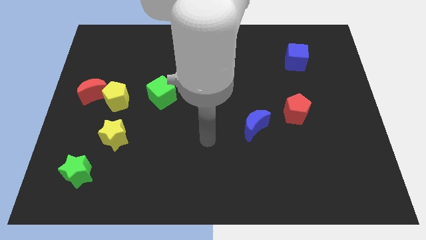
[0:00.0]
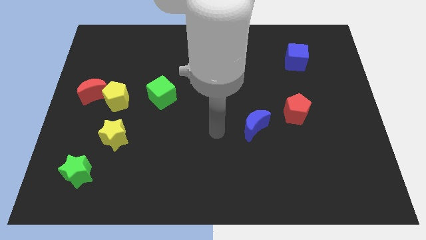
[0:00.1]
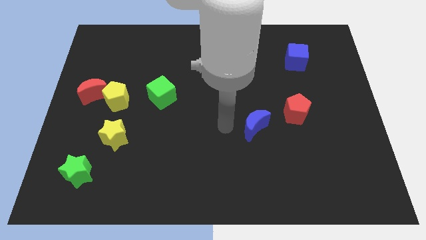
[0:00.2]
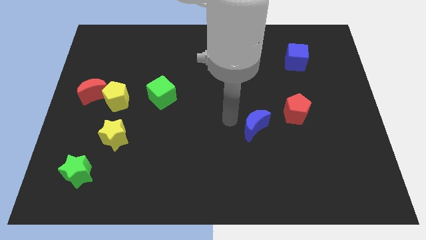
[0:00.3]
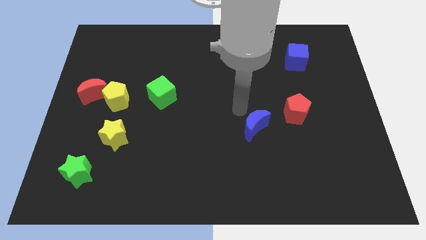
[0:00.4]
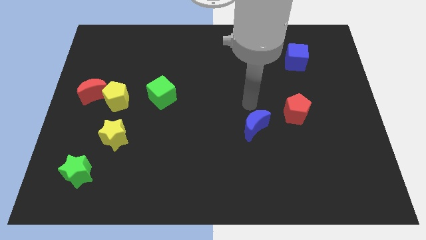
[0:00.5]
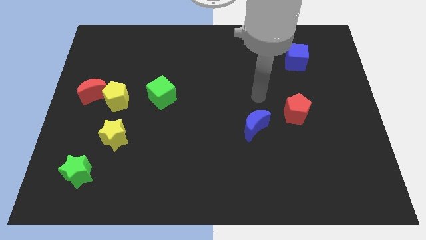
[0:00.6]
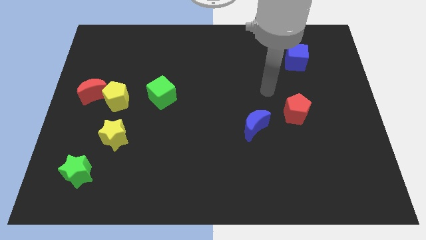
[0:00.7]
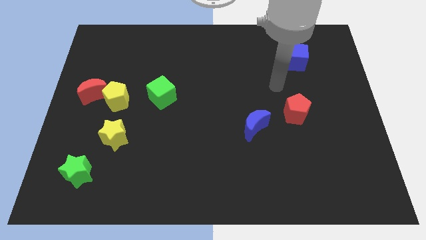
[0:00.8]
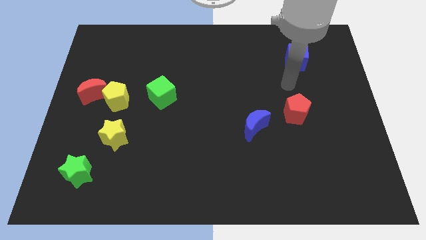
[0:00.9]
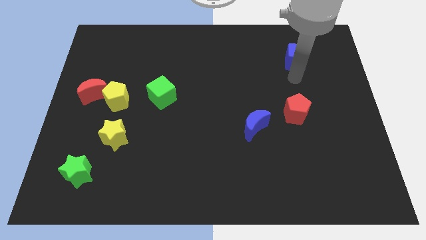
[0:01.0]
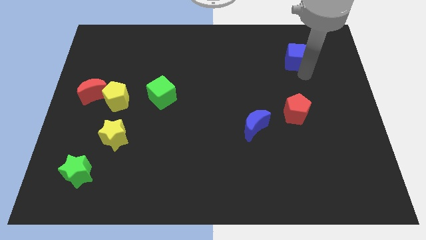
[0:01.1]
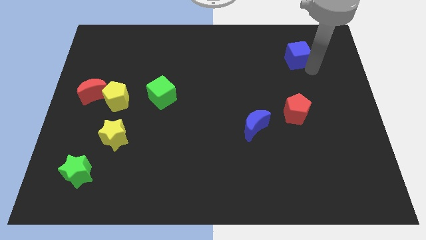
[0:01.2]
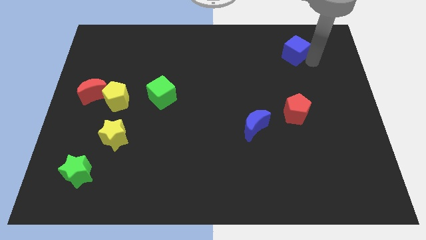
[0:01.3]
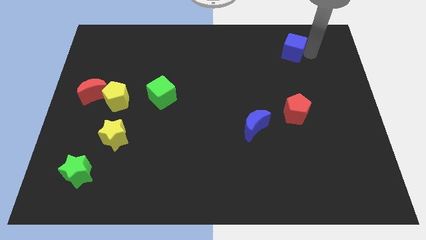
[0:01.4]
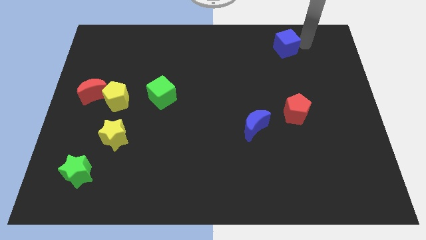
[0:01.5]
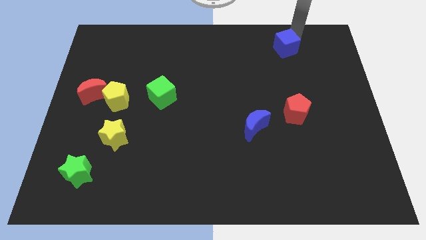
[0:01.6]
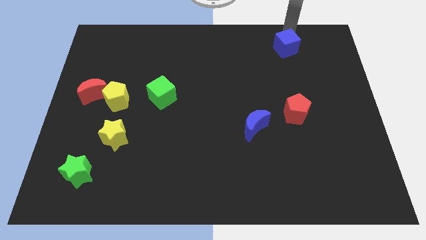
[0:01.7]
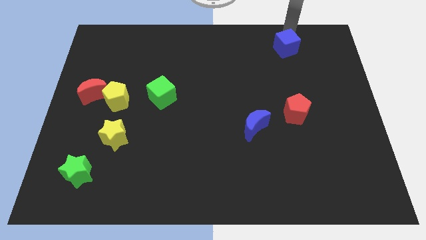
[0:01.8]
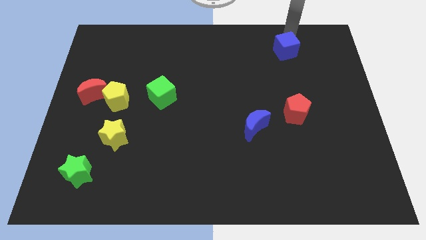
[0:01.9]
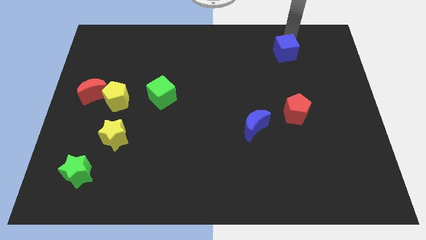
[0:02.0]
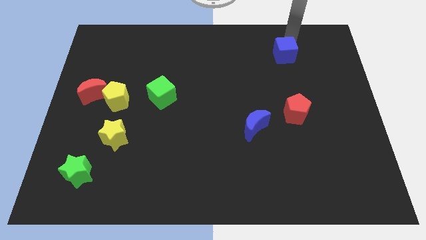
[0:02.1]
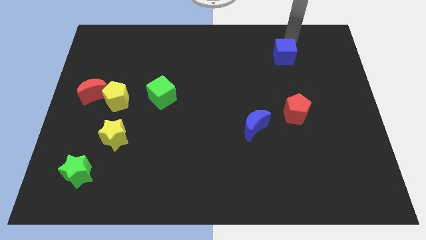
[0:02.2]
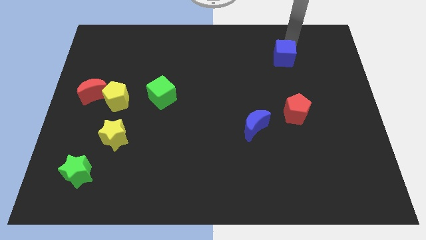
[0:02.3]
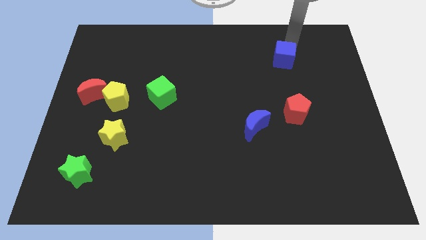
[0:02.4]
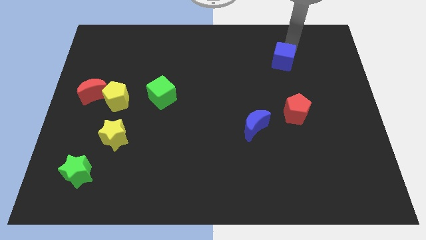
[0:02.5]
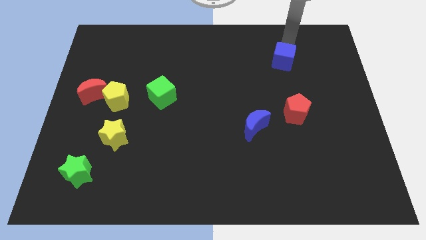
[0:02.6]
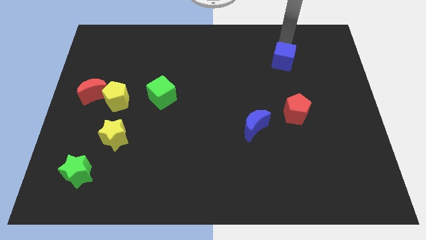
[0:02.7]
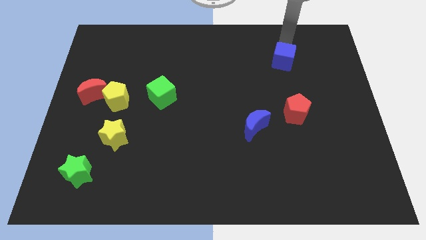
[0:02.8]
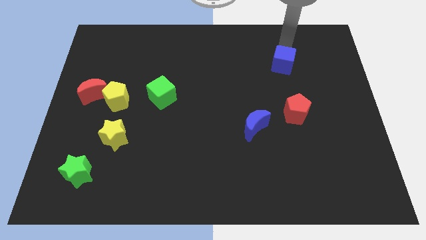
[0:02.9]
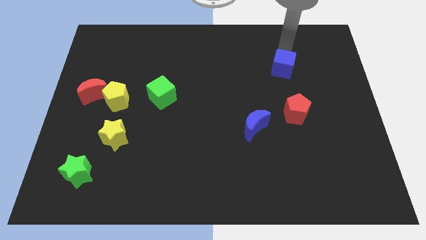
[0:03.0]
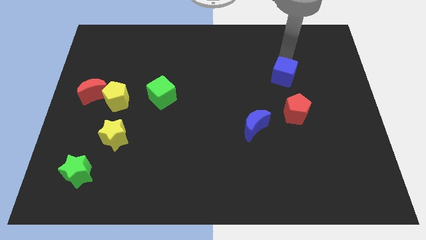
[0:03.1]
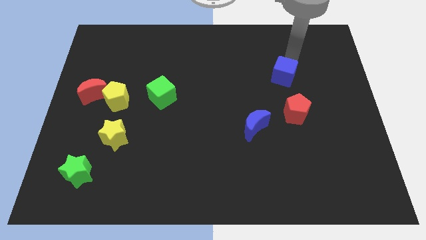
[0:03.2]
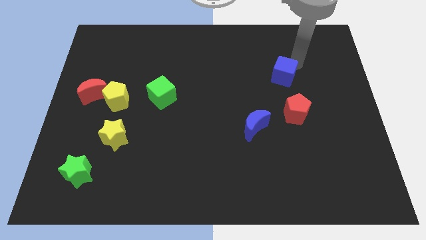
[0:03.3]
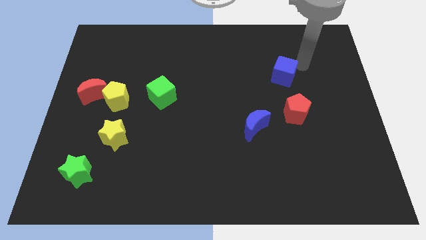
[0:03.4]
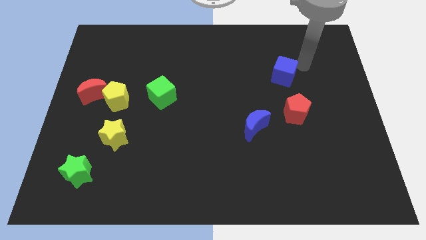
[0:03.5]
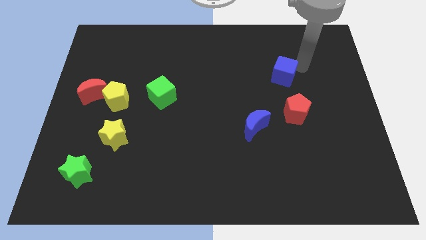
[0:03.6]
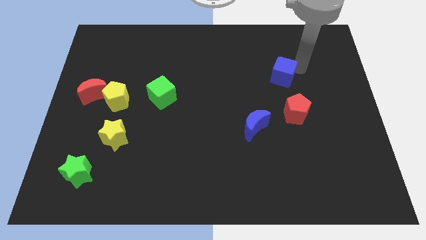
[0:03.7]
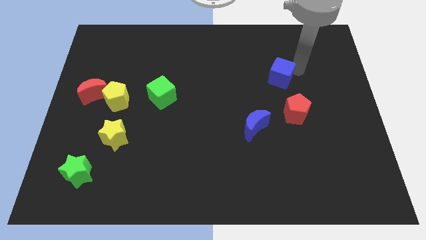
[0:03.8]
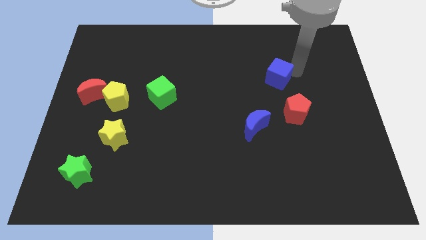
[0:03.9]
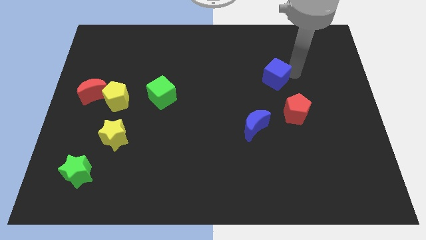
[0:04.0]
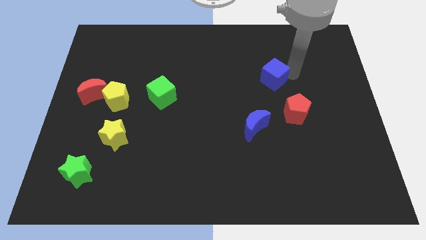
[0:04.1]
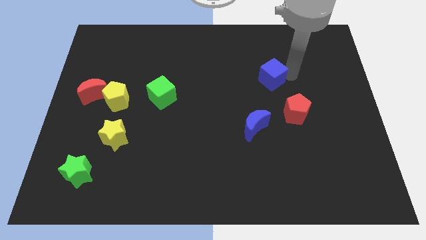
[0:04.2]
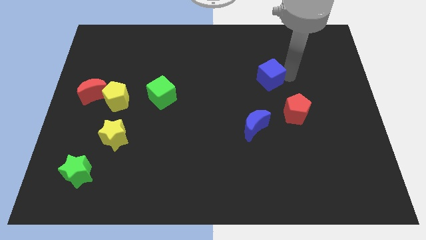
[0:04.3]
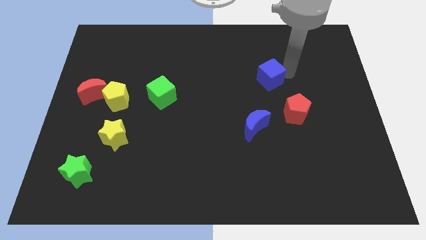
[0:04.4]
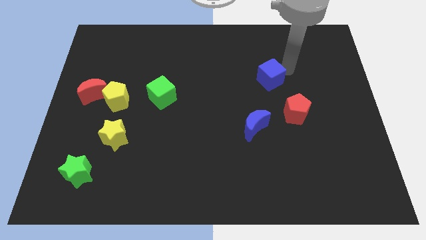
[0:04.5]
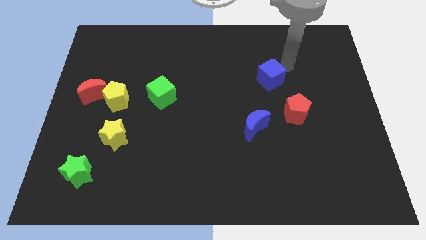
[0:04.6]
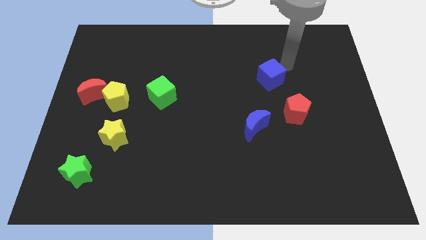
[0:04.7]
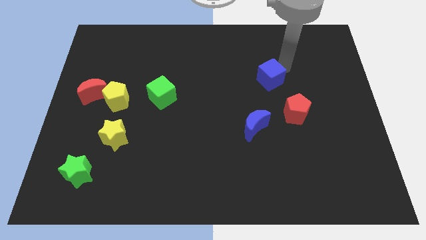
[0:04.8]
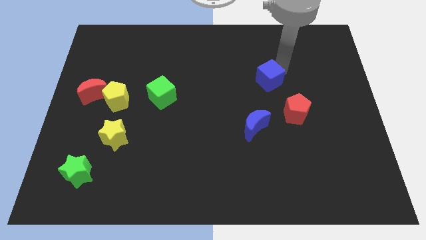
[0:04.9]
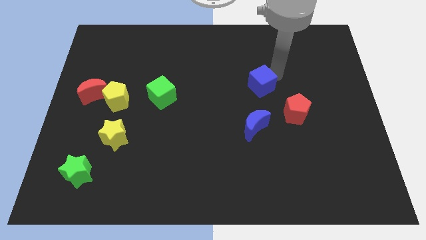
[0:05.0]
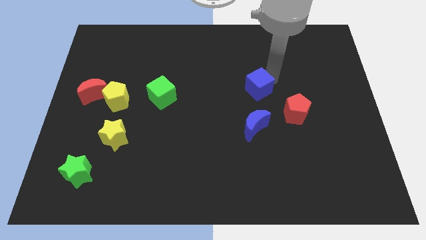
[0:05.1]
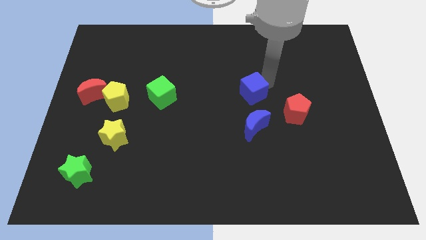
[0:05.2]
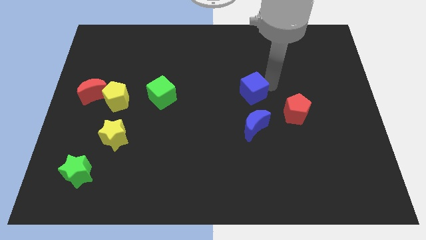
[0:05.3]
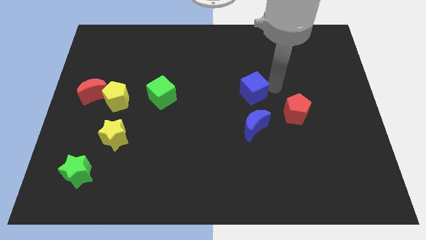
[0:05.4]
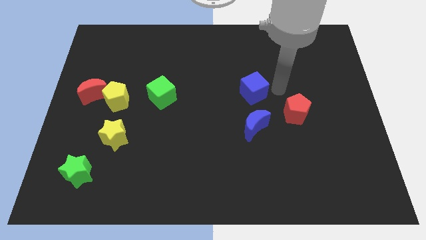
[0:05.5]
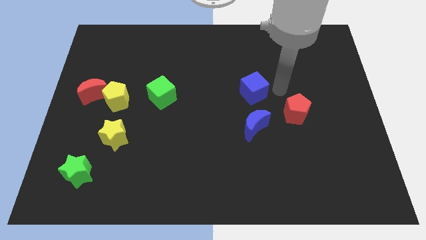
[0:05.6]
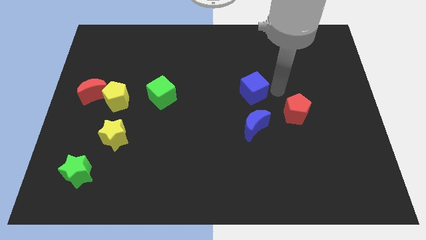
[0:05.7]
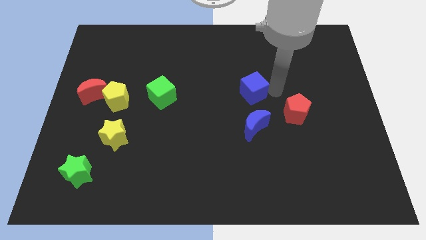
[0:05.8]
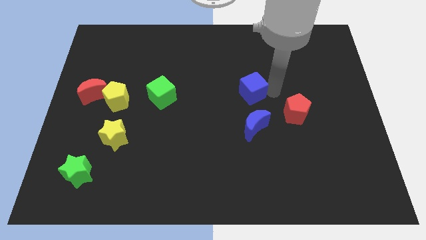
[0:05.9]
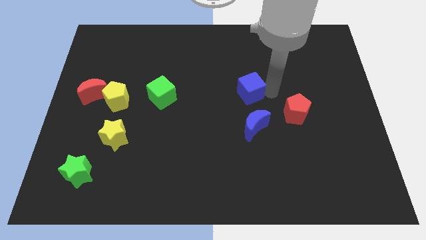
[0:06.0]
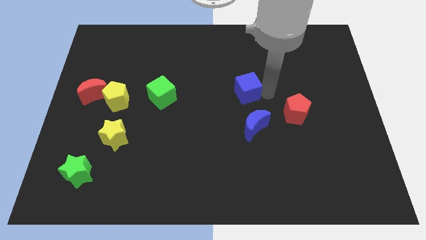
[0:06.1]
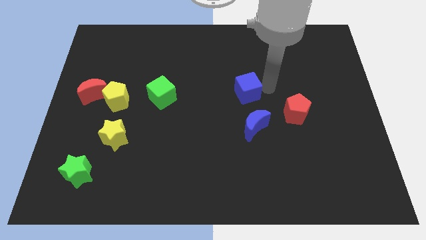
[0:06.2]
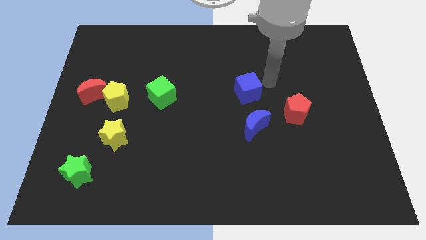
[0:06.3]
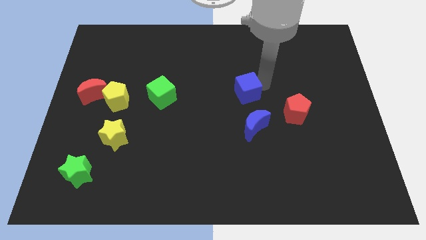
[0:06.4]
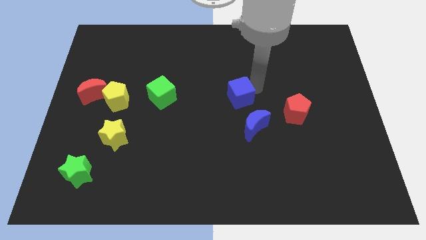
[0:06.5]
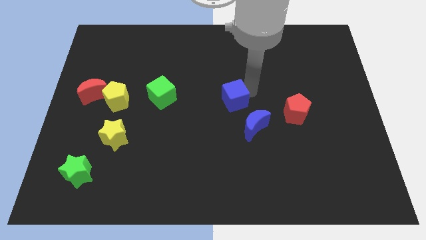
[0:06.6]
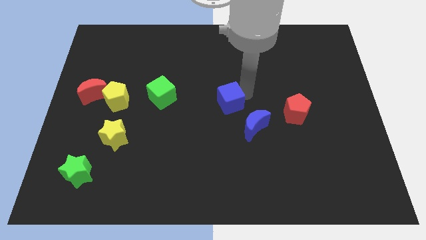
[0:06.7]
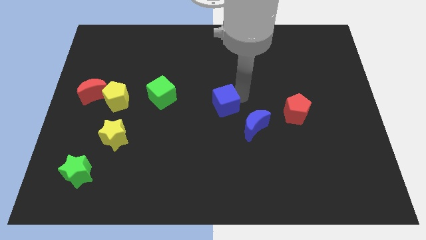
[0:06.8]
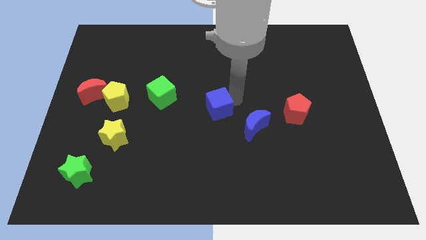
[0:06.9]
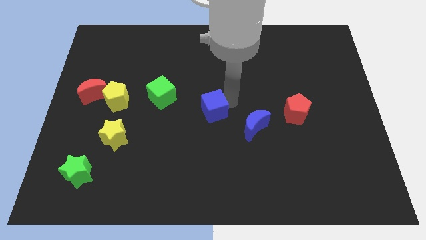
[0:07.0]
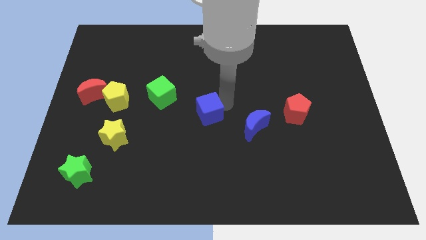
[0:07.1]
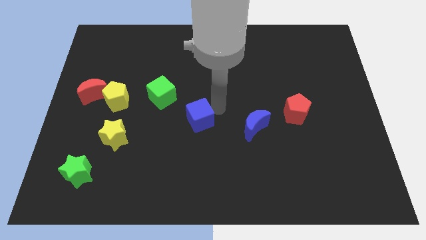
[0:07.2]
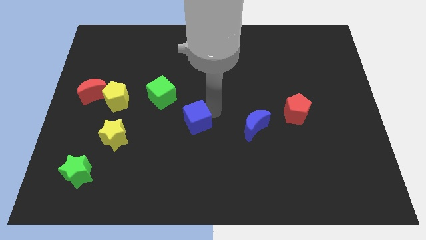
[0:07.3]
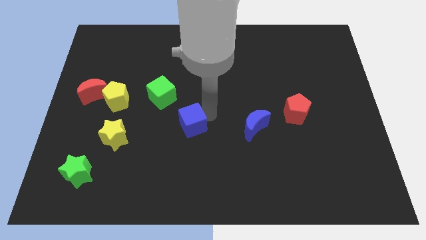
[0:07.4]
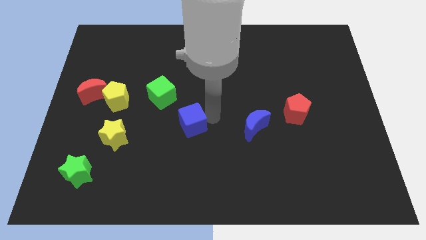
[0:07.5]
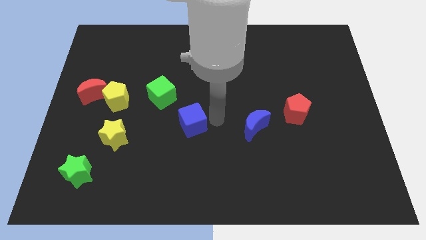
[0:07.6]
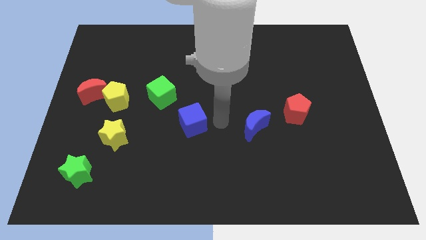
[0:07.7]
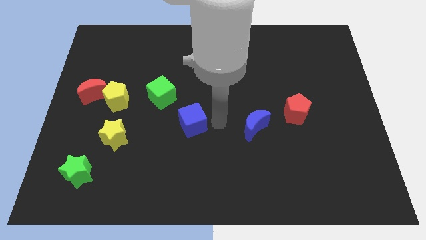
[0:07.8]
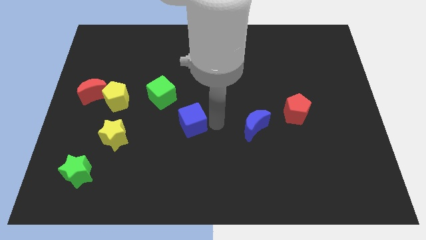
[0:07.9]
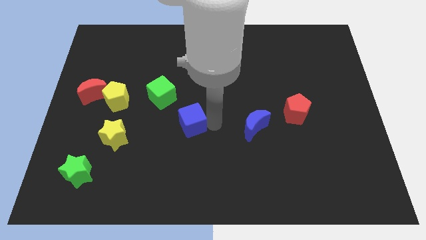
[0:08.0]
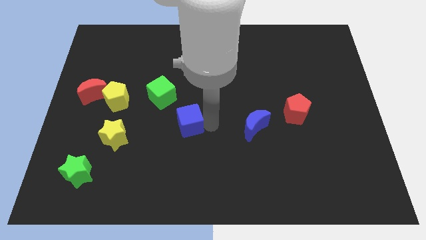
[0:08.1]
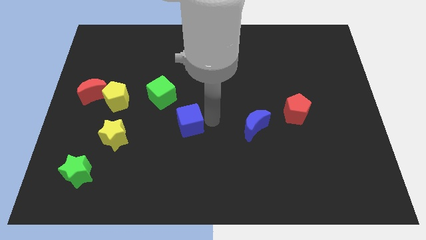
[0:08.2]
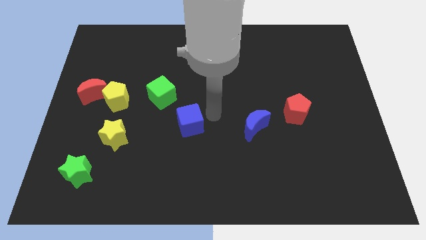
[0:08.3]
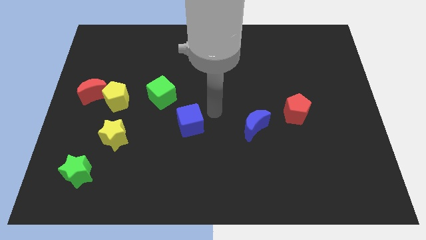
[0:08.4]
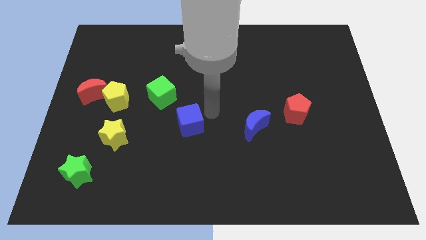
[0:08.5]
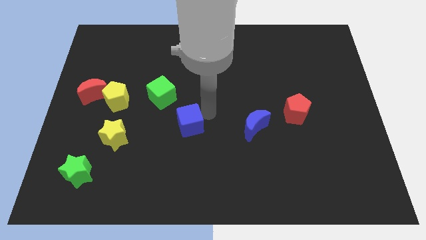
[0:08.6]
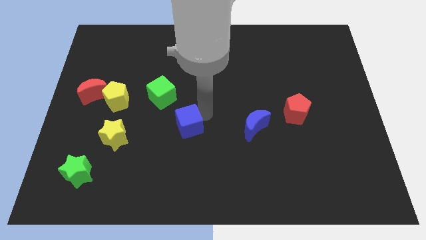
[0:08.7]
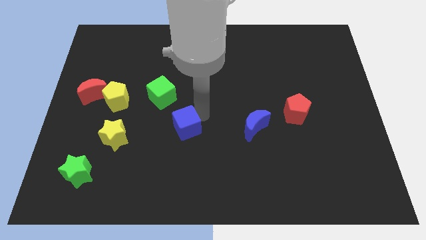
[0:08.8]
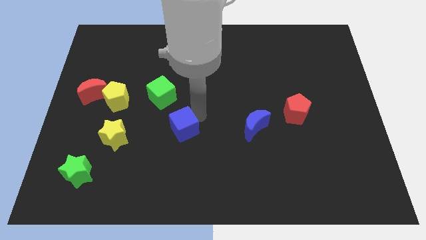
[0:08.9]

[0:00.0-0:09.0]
push the blue cube to the right side of the yellow star
